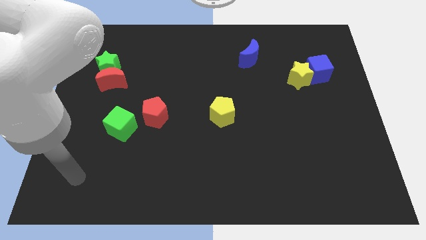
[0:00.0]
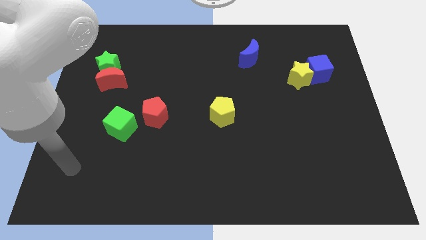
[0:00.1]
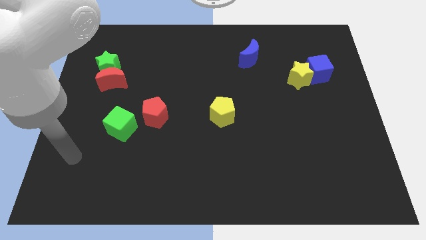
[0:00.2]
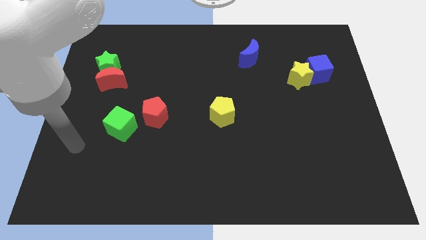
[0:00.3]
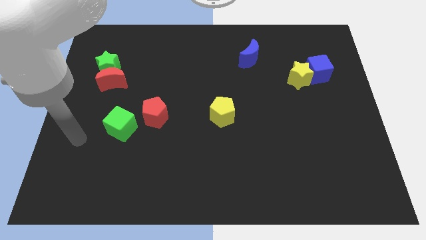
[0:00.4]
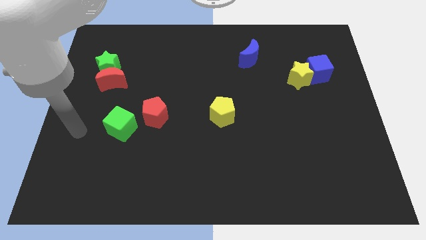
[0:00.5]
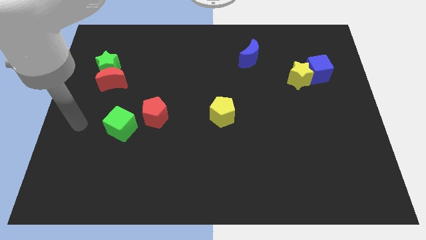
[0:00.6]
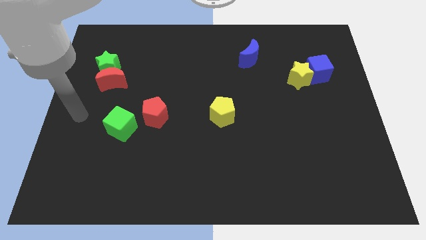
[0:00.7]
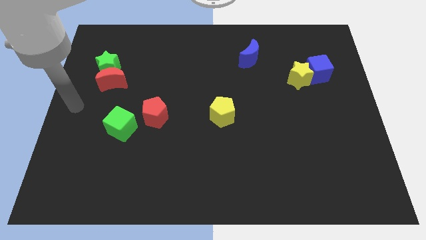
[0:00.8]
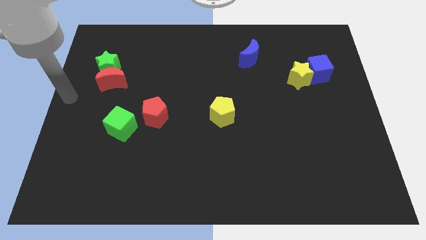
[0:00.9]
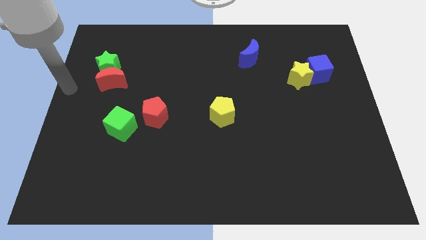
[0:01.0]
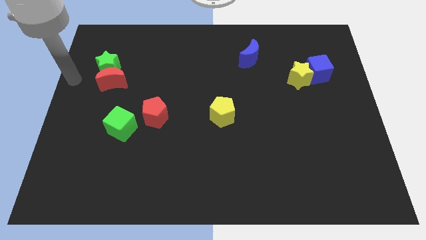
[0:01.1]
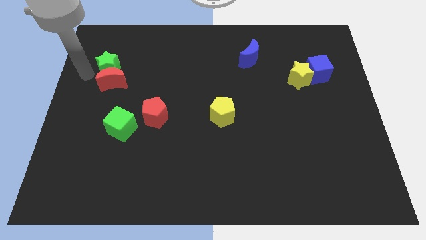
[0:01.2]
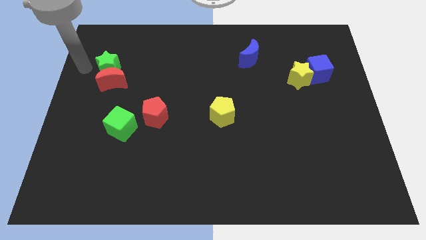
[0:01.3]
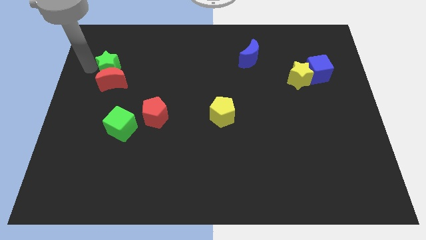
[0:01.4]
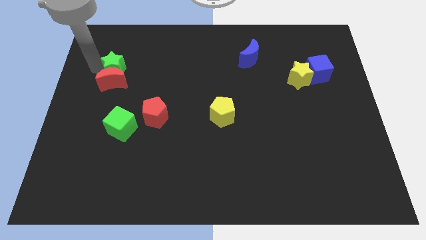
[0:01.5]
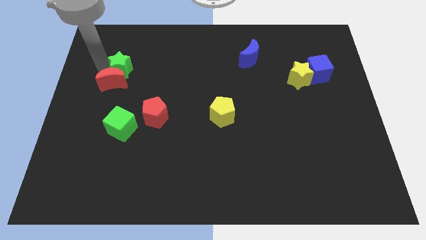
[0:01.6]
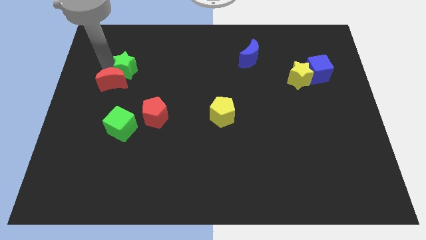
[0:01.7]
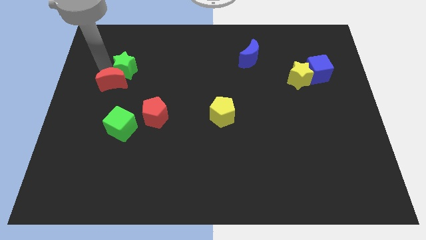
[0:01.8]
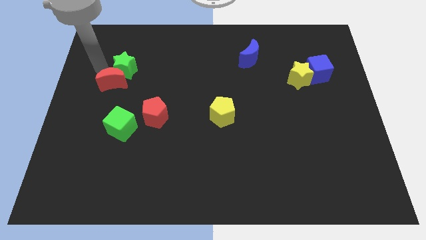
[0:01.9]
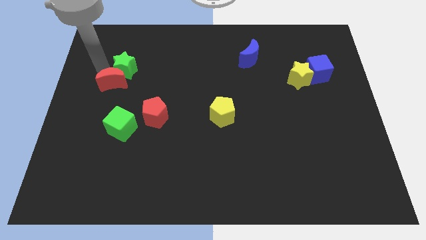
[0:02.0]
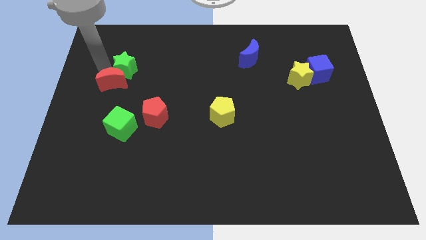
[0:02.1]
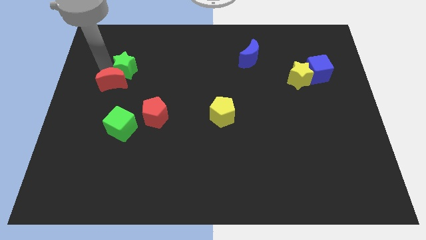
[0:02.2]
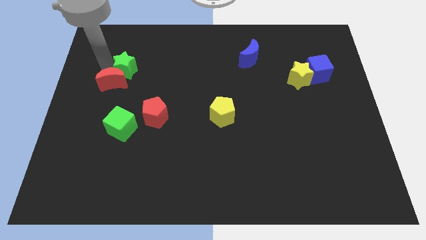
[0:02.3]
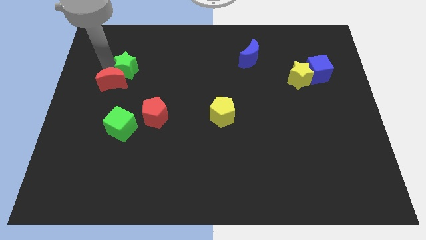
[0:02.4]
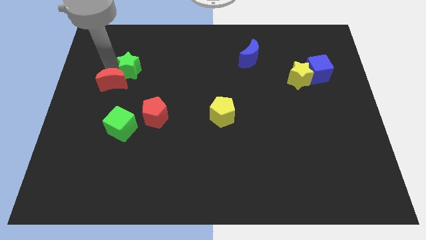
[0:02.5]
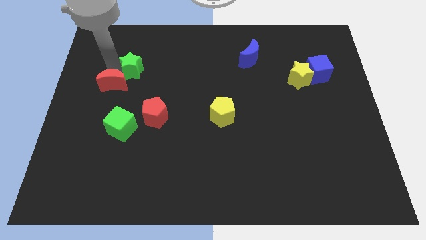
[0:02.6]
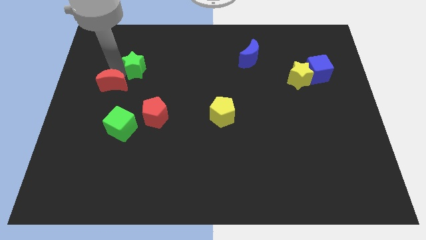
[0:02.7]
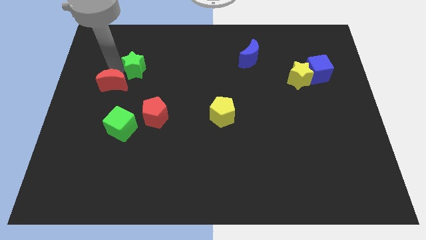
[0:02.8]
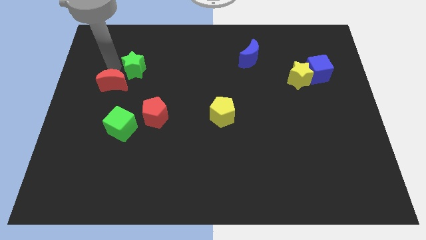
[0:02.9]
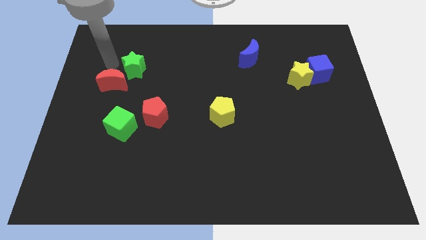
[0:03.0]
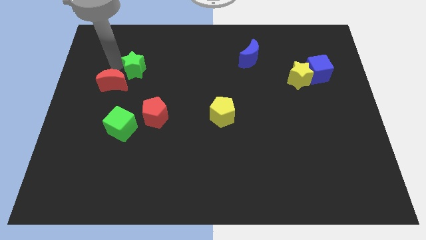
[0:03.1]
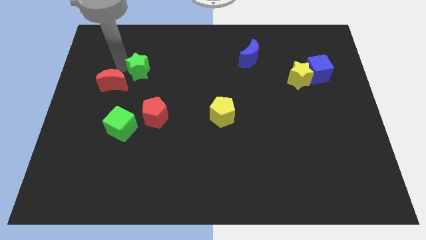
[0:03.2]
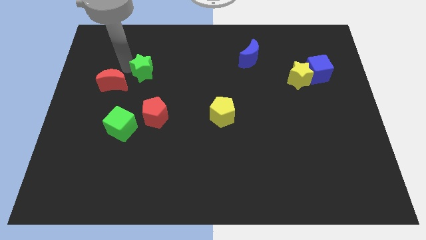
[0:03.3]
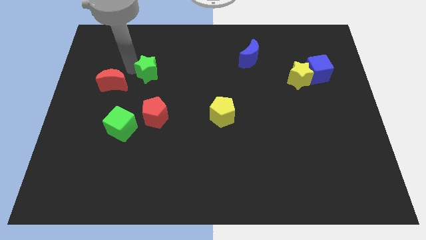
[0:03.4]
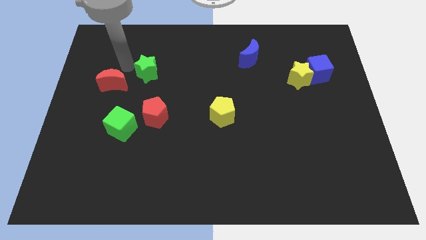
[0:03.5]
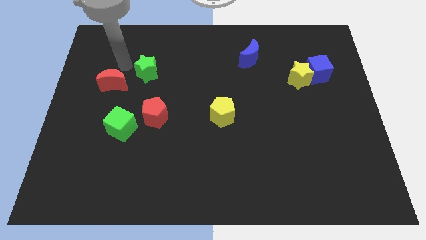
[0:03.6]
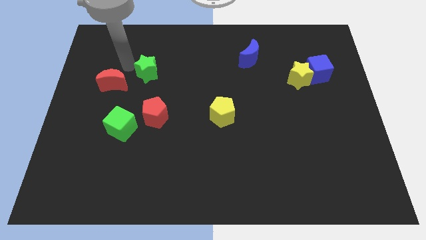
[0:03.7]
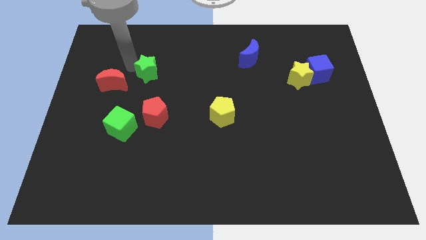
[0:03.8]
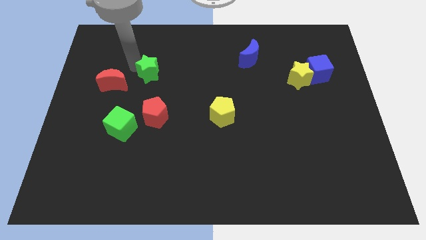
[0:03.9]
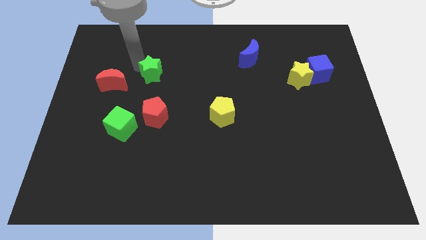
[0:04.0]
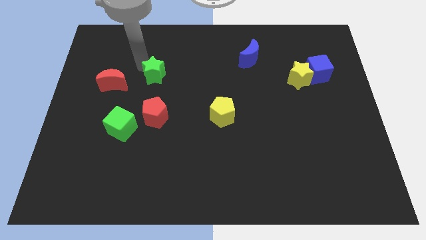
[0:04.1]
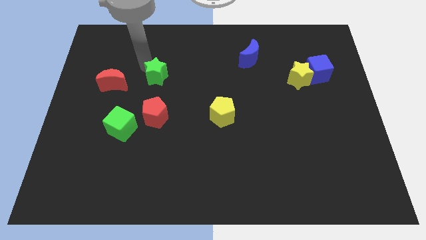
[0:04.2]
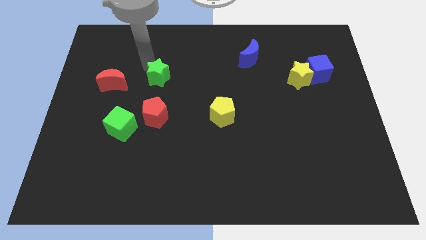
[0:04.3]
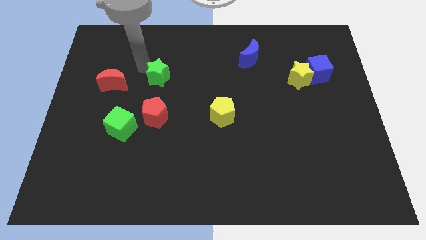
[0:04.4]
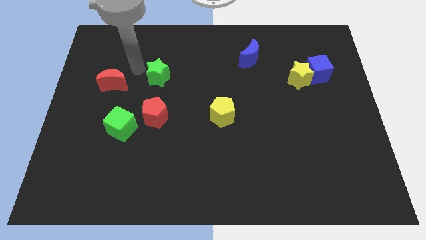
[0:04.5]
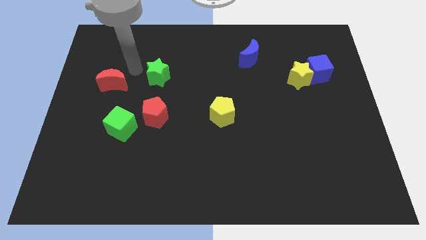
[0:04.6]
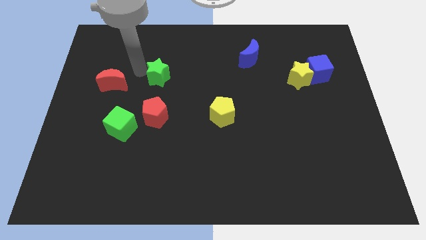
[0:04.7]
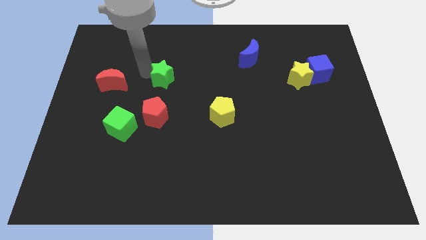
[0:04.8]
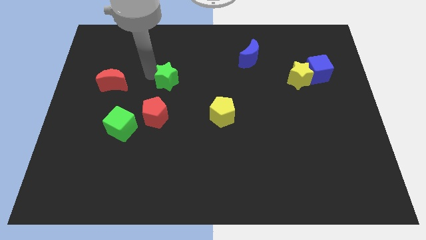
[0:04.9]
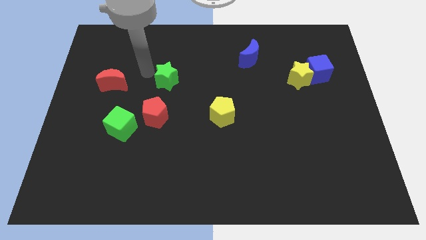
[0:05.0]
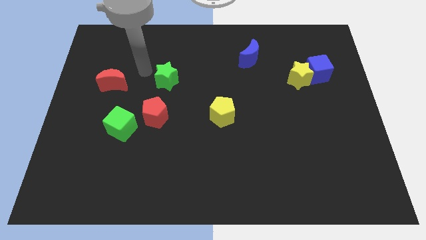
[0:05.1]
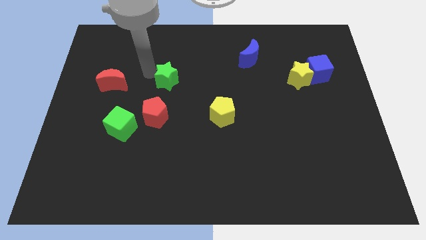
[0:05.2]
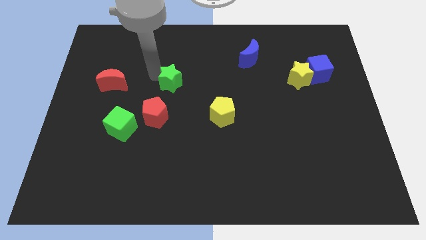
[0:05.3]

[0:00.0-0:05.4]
push the green star to the center of the board

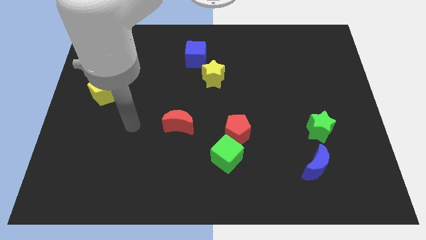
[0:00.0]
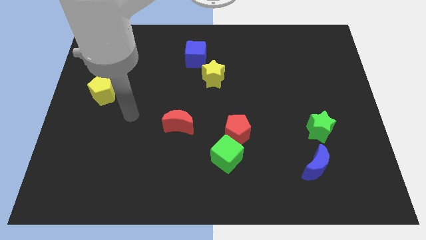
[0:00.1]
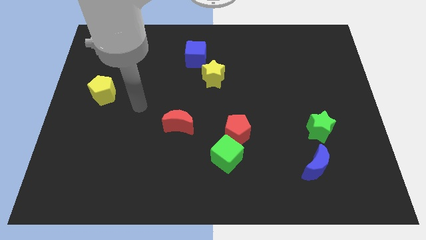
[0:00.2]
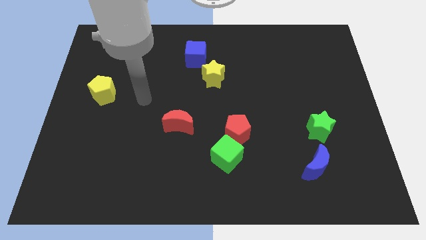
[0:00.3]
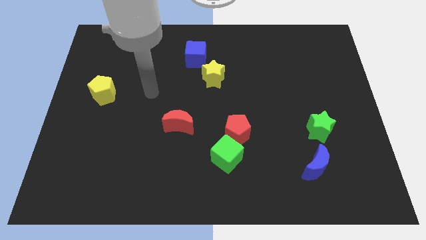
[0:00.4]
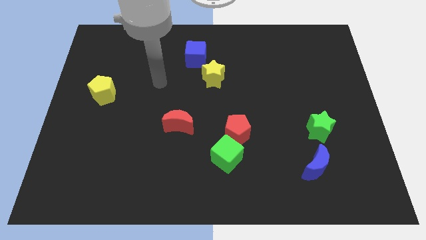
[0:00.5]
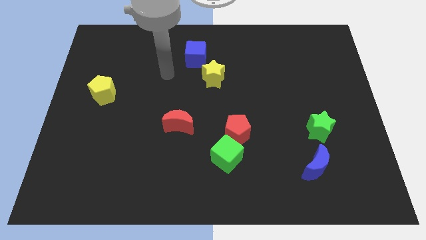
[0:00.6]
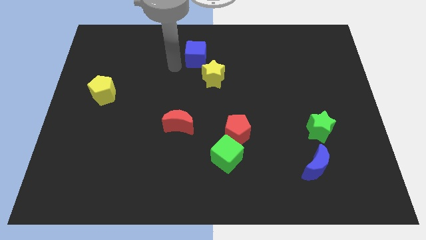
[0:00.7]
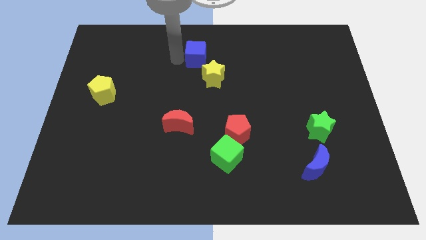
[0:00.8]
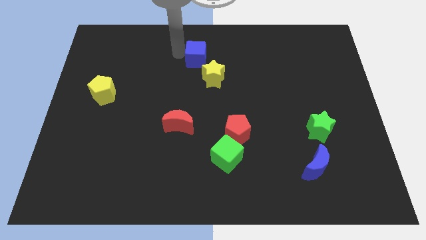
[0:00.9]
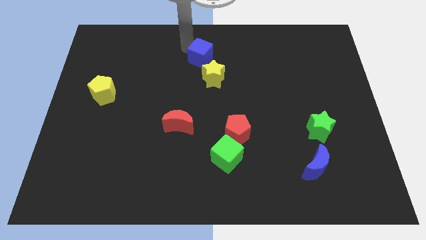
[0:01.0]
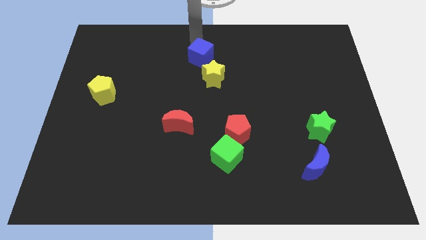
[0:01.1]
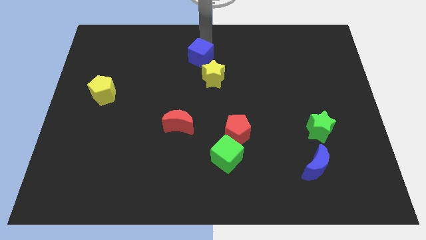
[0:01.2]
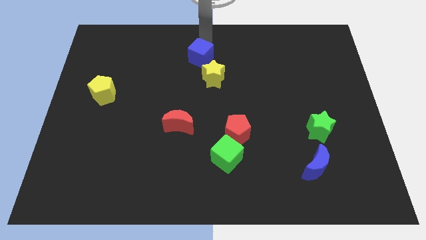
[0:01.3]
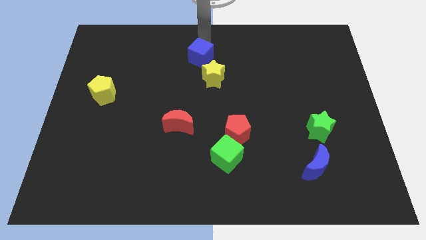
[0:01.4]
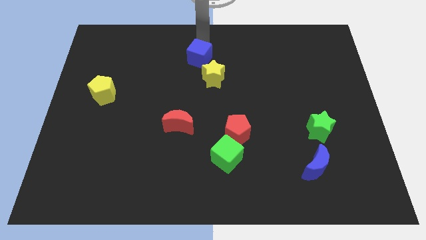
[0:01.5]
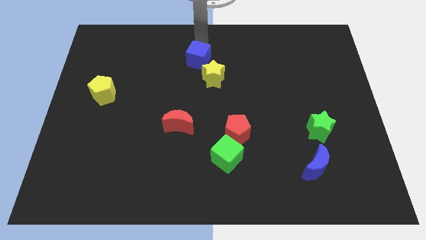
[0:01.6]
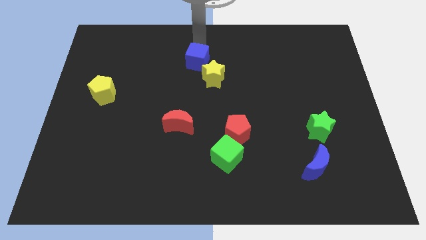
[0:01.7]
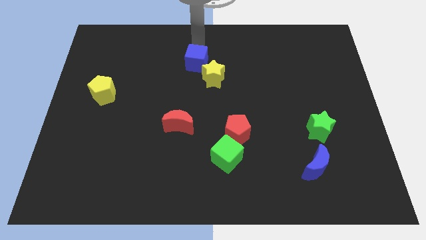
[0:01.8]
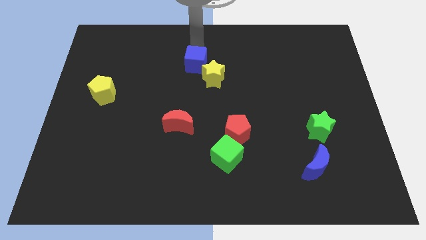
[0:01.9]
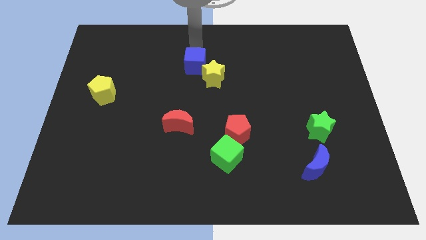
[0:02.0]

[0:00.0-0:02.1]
slide the blue cube to the center of the board
